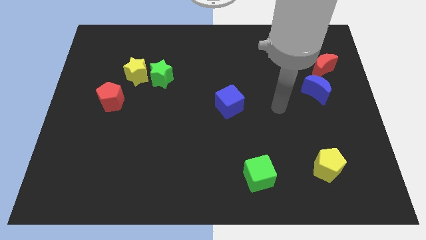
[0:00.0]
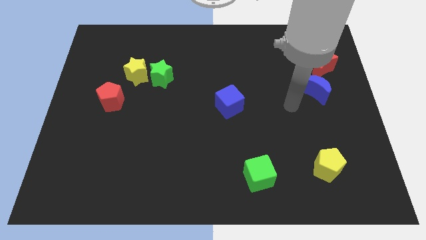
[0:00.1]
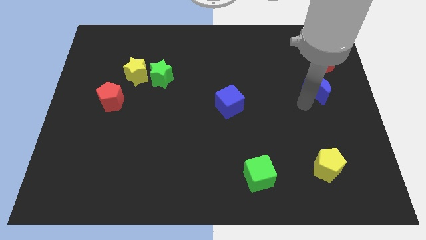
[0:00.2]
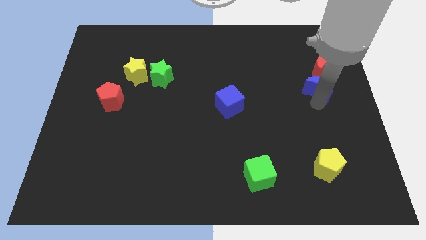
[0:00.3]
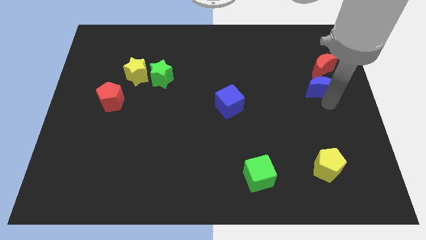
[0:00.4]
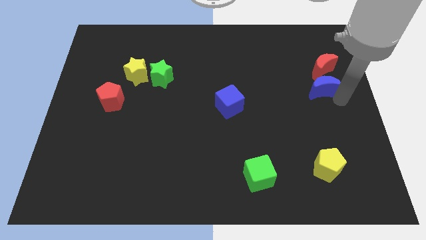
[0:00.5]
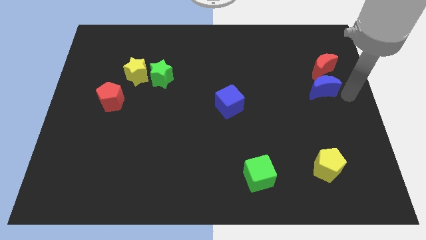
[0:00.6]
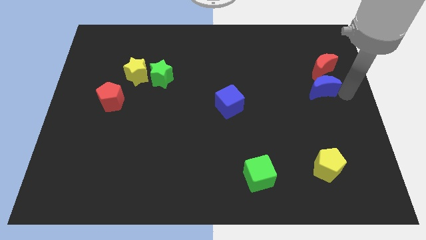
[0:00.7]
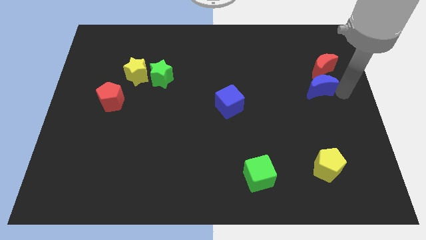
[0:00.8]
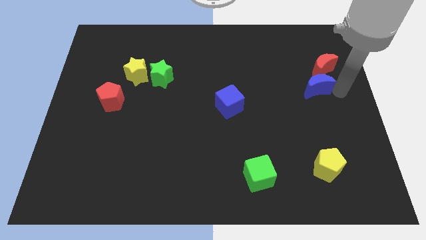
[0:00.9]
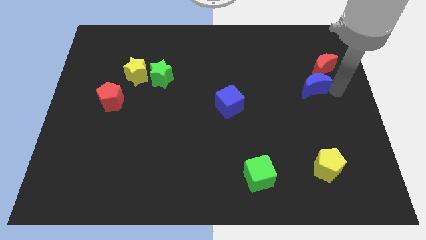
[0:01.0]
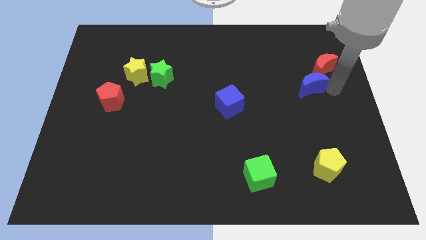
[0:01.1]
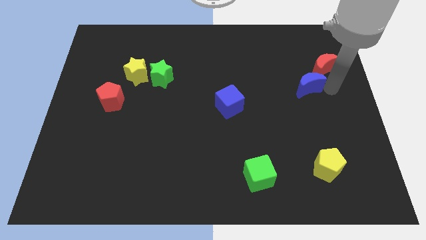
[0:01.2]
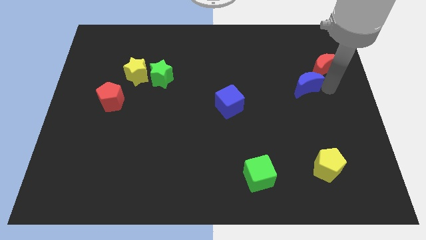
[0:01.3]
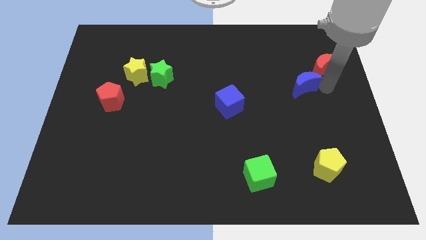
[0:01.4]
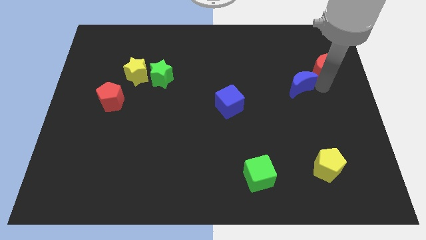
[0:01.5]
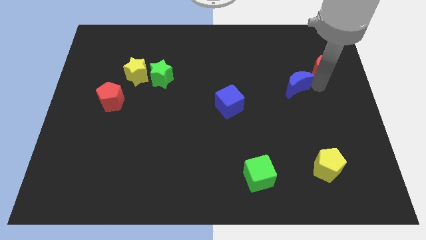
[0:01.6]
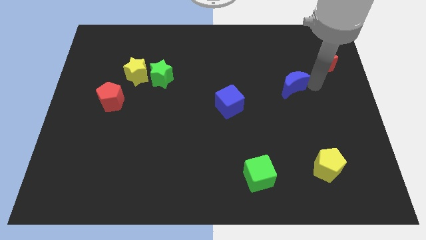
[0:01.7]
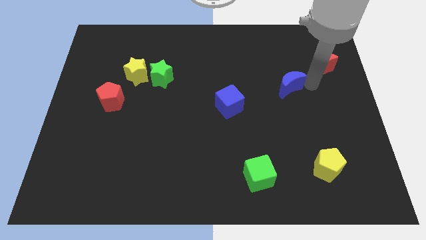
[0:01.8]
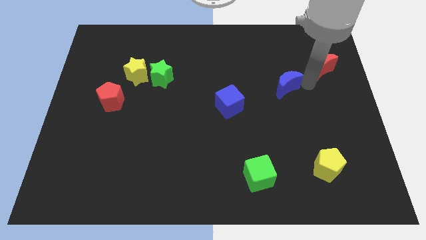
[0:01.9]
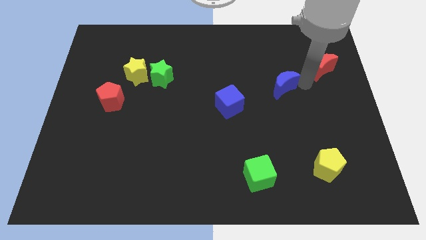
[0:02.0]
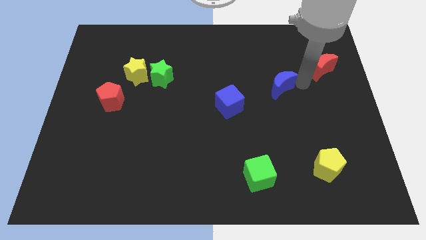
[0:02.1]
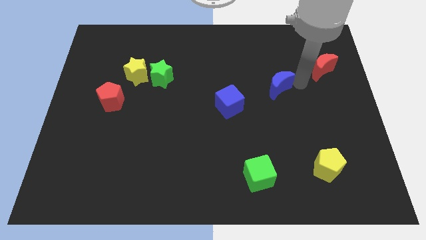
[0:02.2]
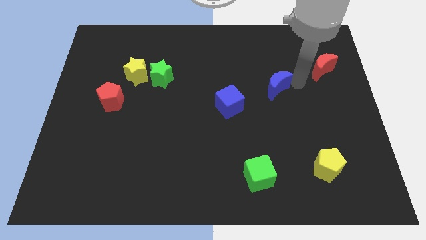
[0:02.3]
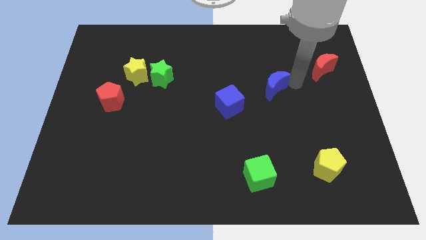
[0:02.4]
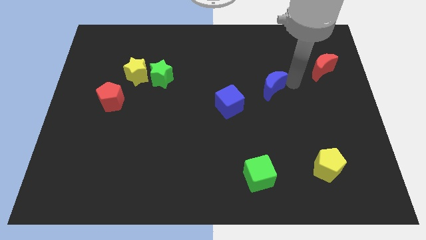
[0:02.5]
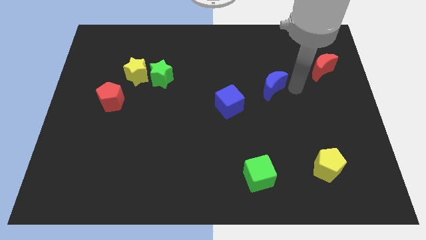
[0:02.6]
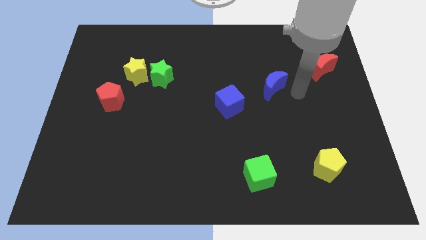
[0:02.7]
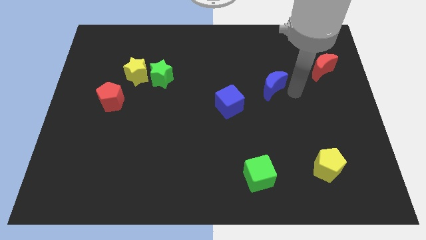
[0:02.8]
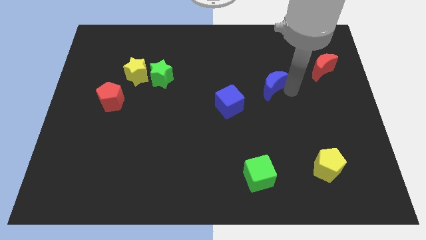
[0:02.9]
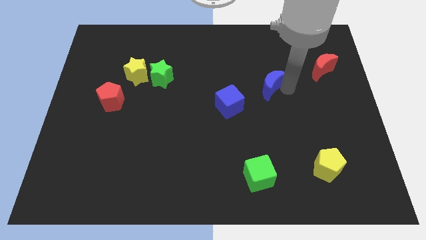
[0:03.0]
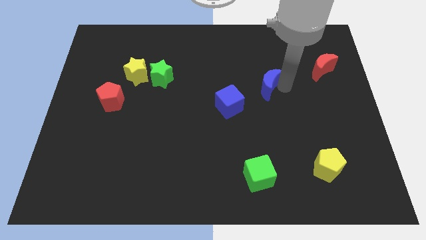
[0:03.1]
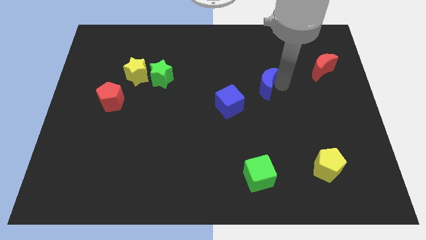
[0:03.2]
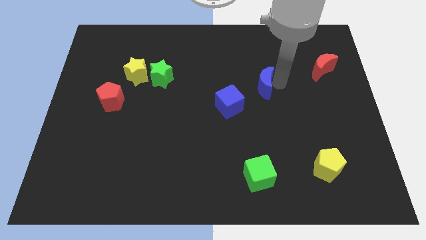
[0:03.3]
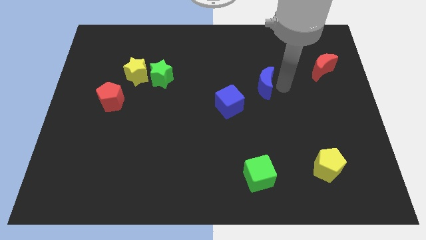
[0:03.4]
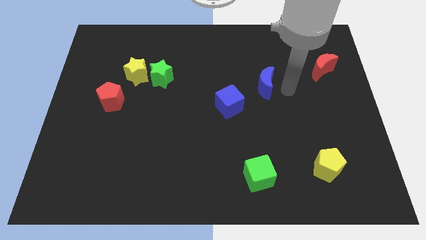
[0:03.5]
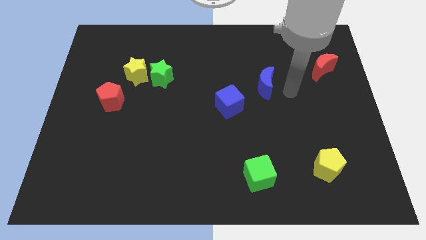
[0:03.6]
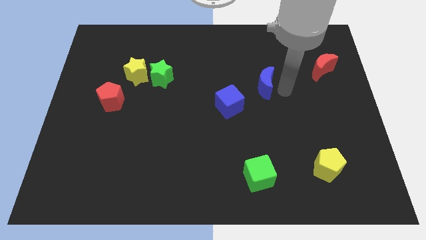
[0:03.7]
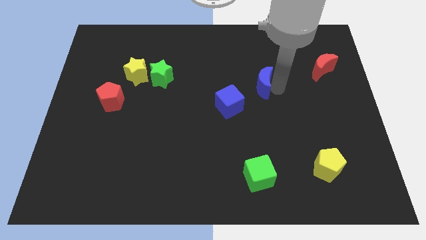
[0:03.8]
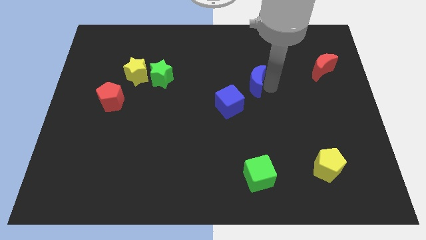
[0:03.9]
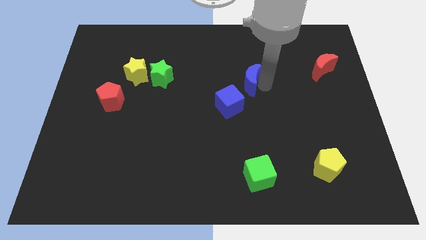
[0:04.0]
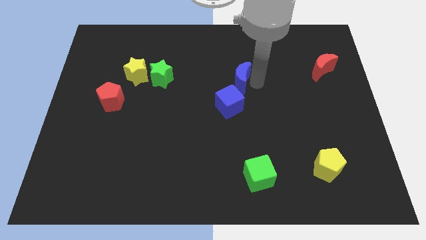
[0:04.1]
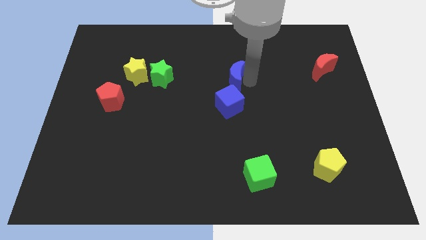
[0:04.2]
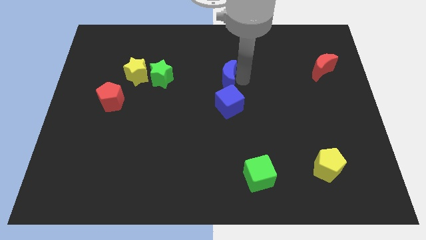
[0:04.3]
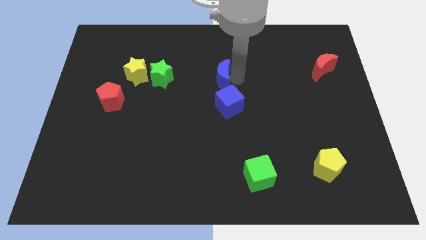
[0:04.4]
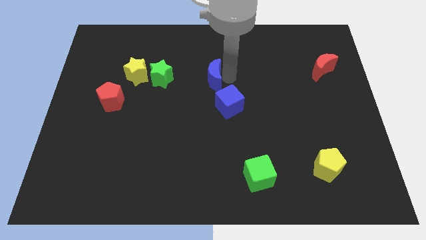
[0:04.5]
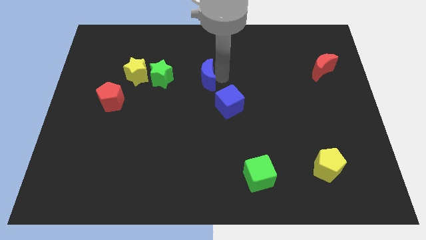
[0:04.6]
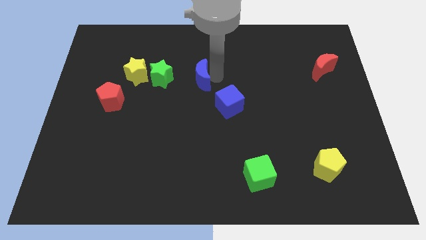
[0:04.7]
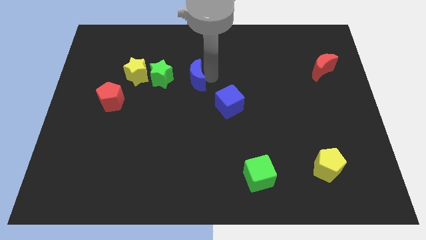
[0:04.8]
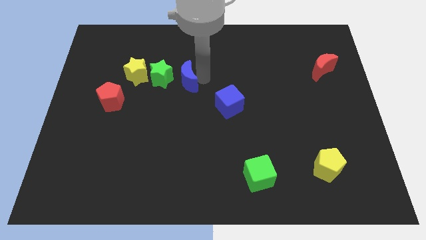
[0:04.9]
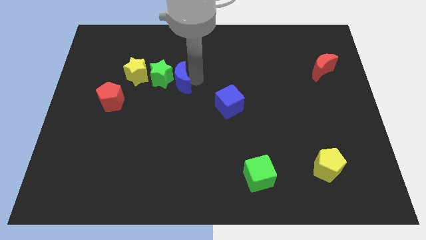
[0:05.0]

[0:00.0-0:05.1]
push the blue moon towards the green star

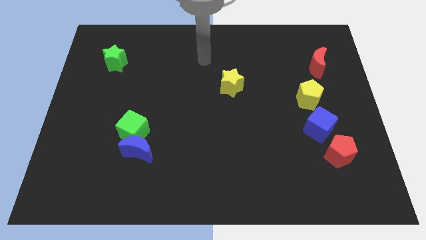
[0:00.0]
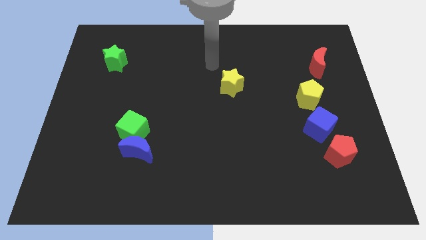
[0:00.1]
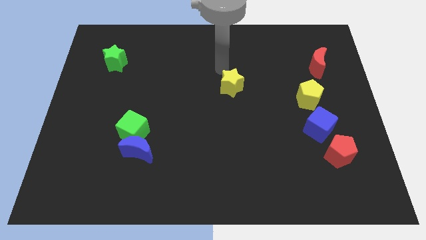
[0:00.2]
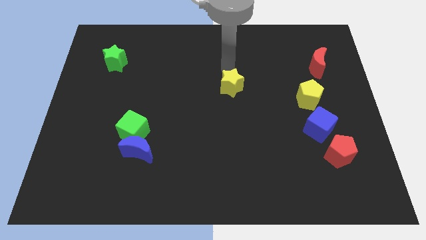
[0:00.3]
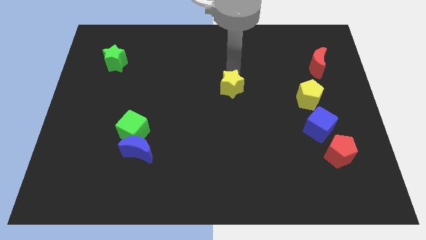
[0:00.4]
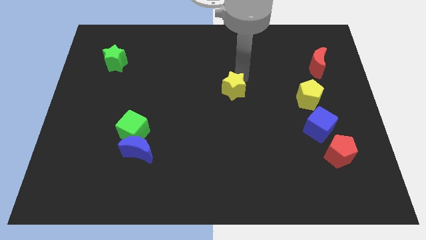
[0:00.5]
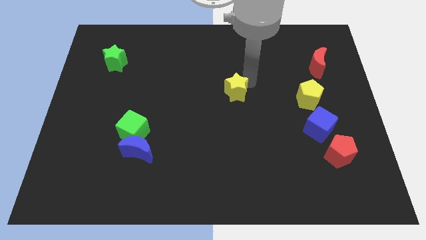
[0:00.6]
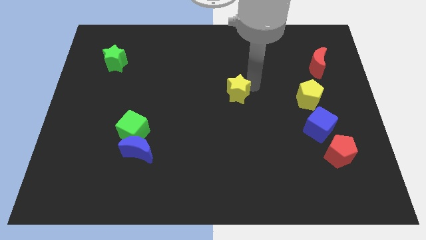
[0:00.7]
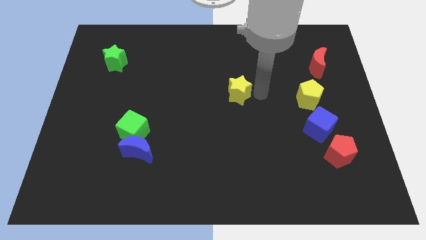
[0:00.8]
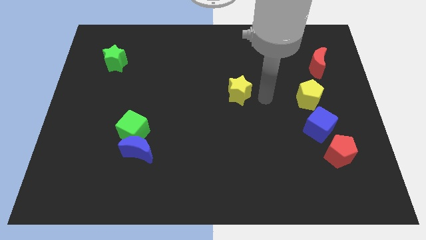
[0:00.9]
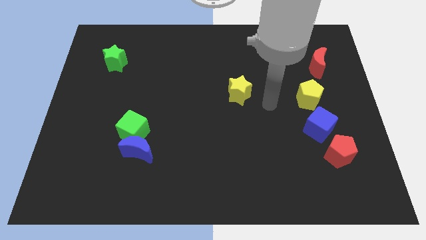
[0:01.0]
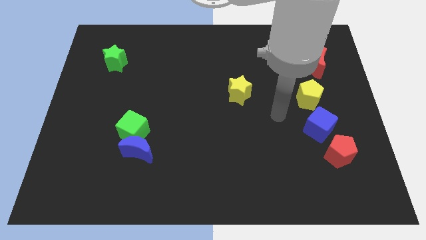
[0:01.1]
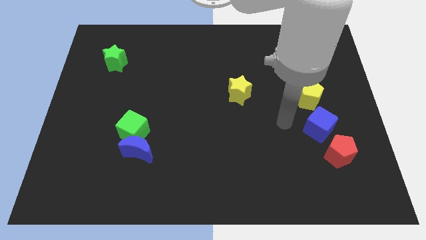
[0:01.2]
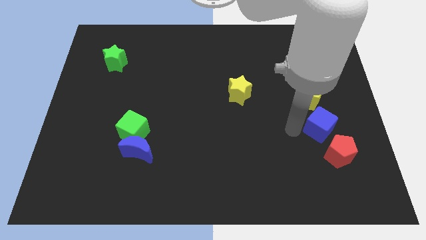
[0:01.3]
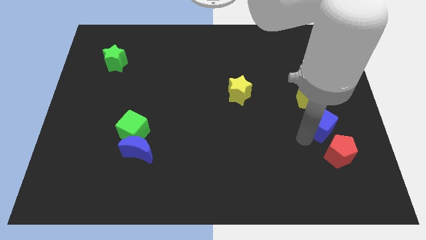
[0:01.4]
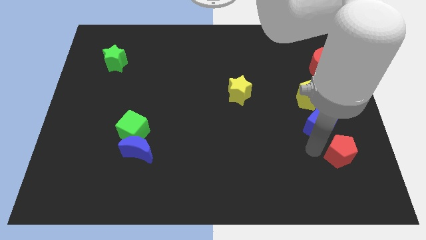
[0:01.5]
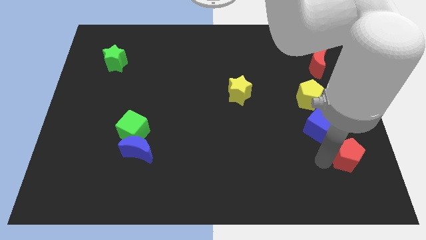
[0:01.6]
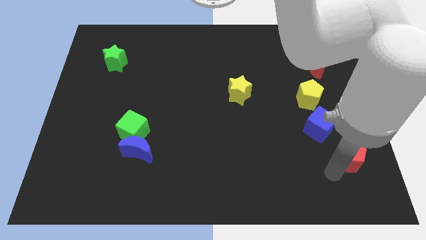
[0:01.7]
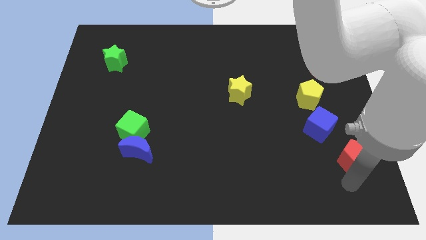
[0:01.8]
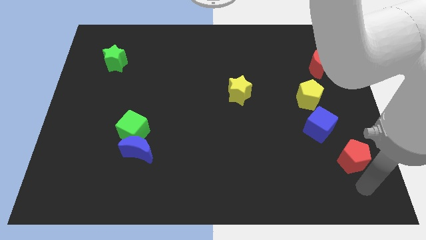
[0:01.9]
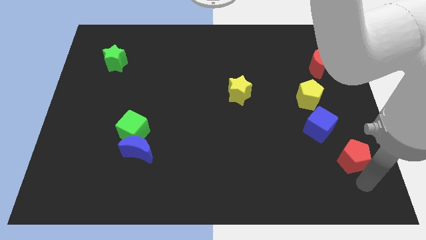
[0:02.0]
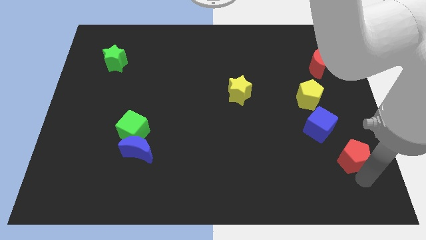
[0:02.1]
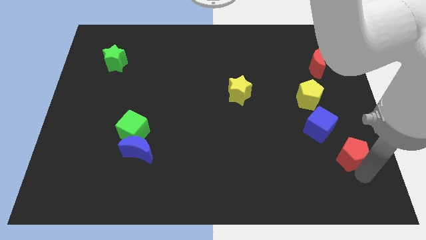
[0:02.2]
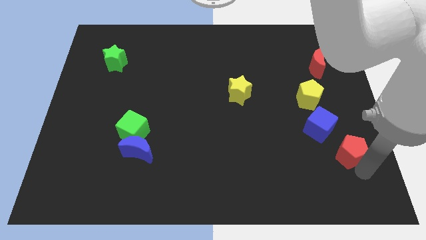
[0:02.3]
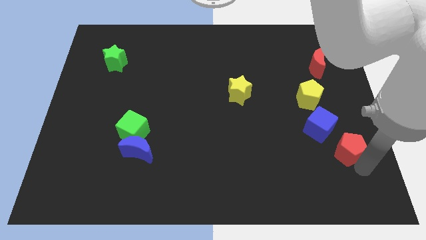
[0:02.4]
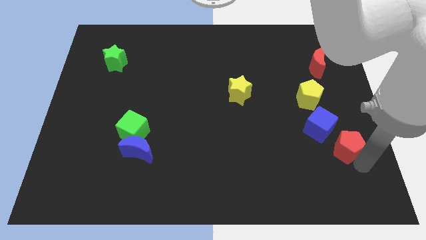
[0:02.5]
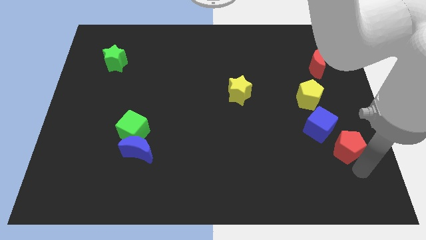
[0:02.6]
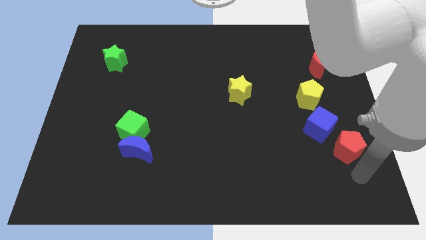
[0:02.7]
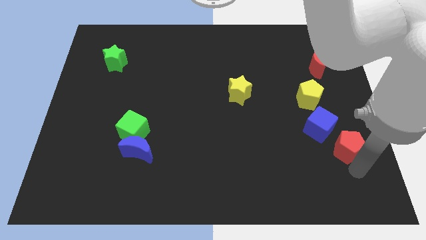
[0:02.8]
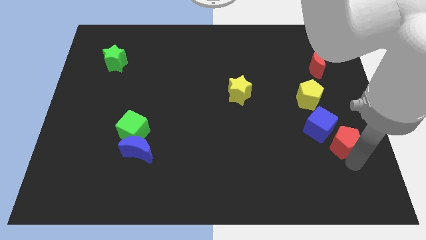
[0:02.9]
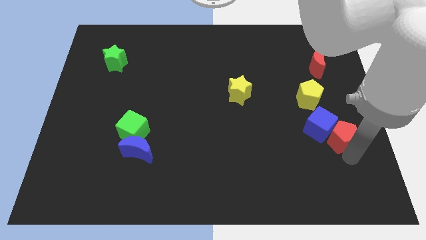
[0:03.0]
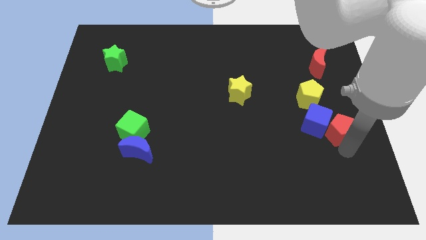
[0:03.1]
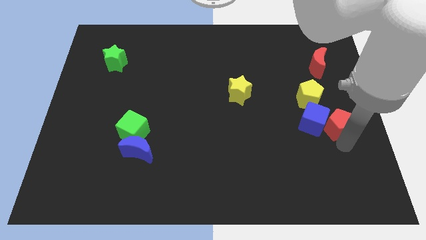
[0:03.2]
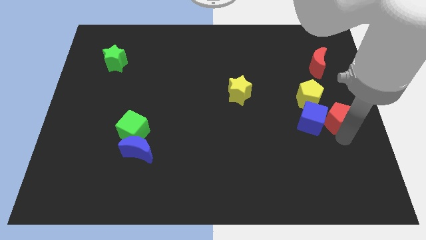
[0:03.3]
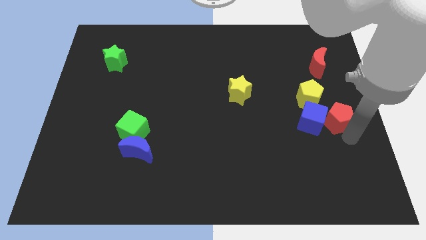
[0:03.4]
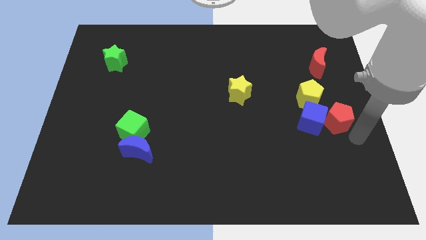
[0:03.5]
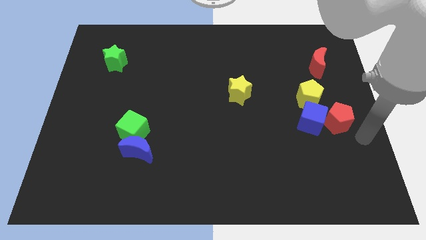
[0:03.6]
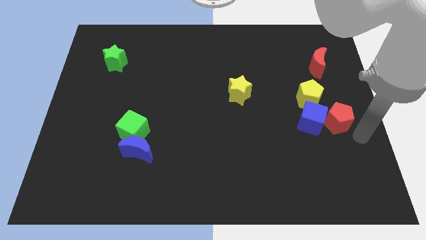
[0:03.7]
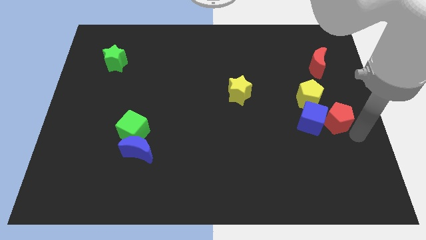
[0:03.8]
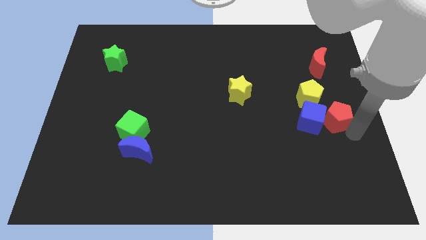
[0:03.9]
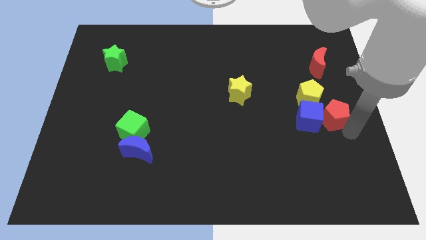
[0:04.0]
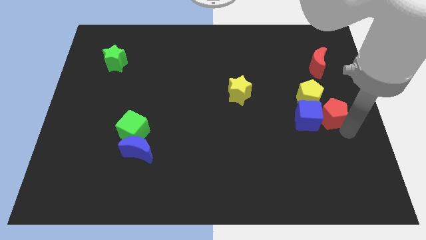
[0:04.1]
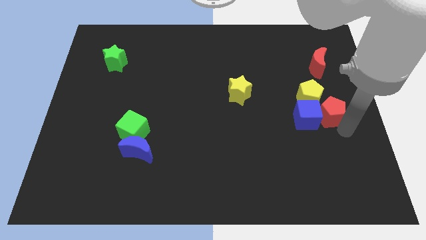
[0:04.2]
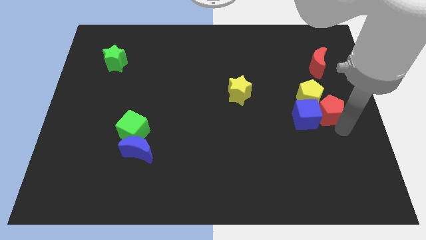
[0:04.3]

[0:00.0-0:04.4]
put the red pentagon to the yellow pentagon
